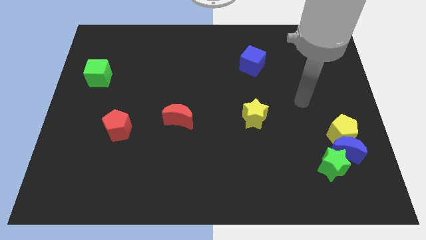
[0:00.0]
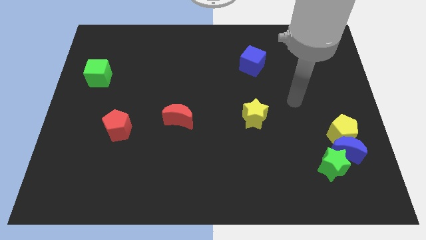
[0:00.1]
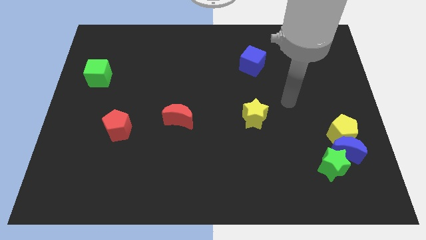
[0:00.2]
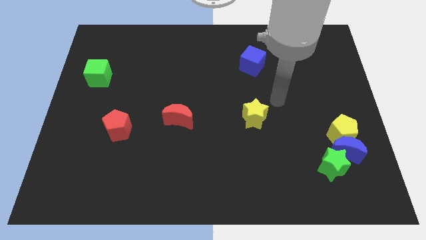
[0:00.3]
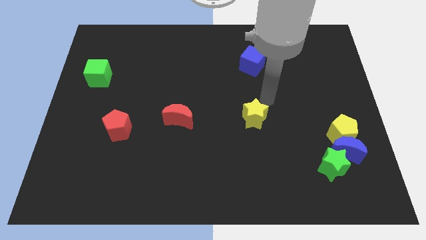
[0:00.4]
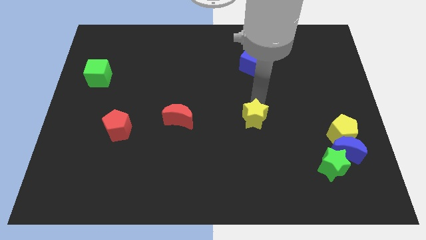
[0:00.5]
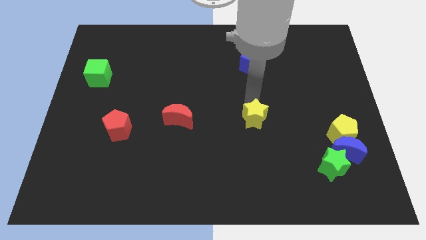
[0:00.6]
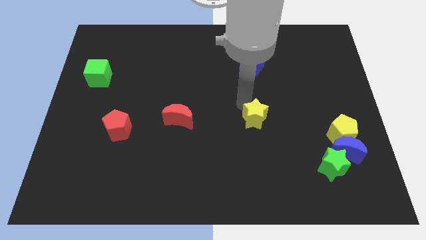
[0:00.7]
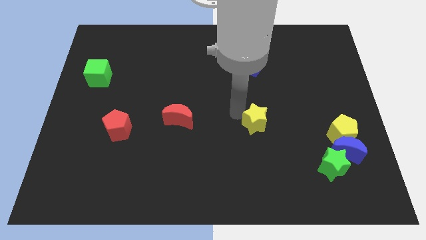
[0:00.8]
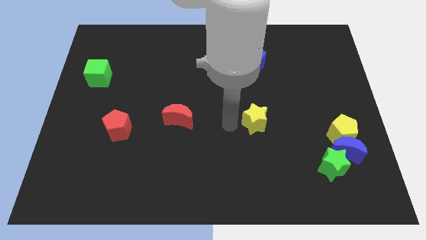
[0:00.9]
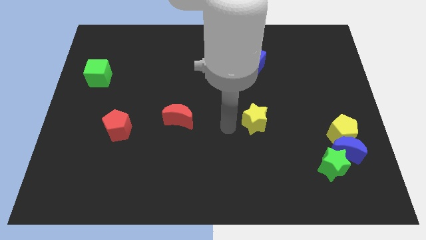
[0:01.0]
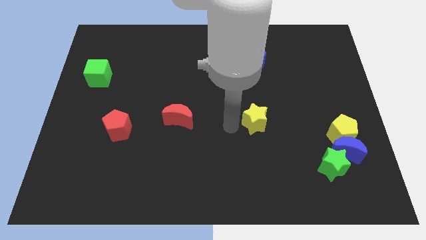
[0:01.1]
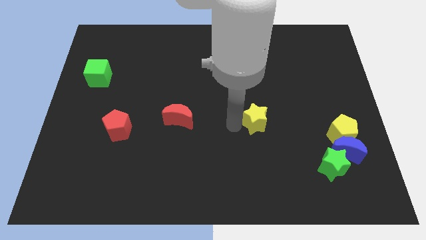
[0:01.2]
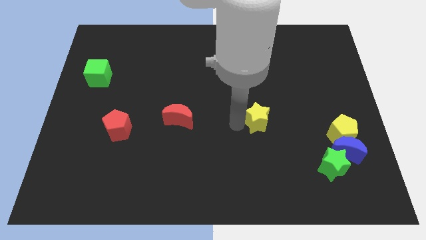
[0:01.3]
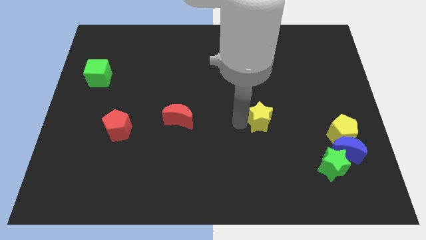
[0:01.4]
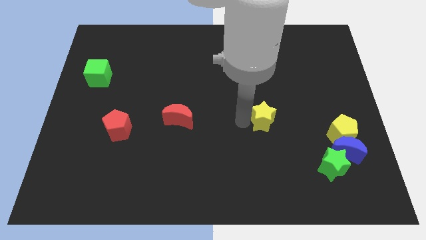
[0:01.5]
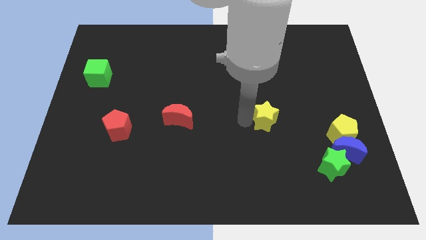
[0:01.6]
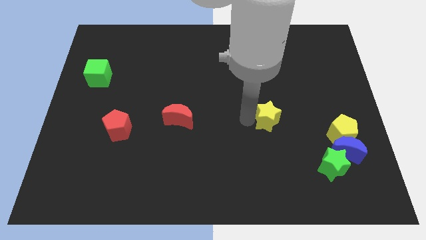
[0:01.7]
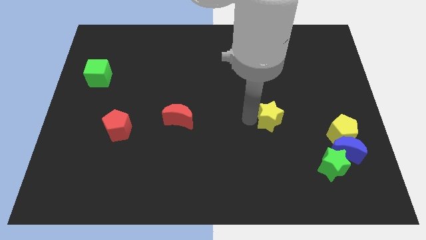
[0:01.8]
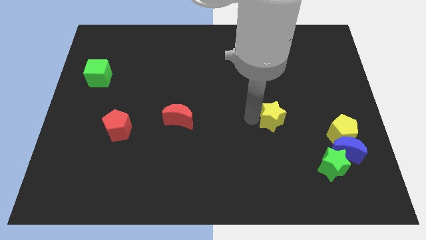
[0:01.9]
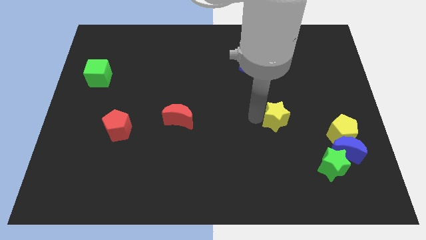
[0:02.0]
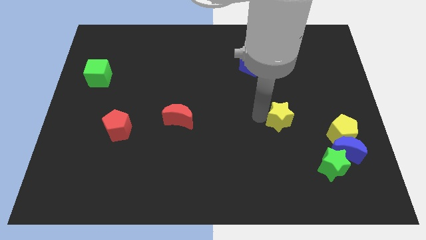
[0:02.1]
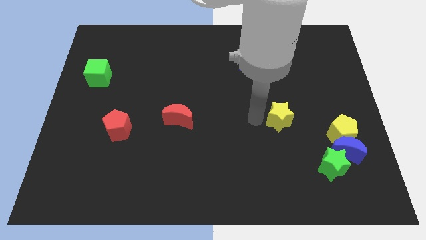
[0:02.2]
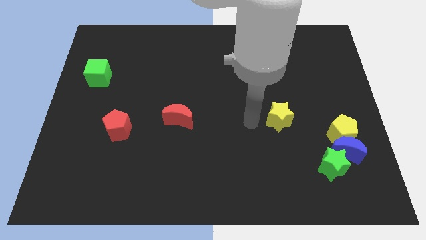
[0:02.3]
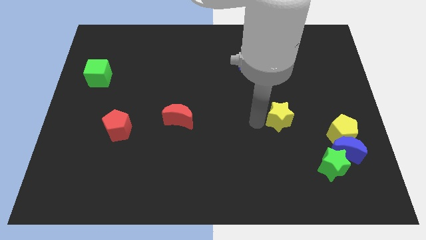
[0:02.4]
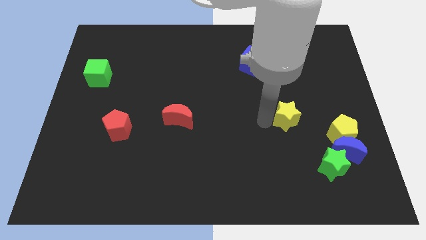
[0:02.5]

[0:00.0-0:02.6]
push the yellow star to the right a bit

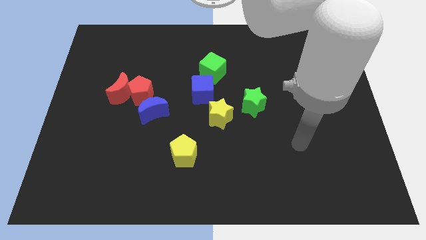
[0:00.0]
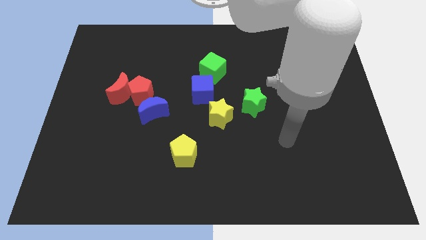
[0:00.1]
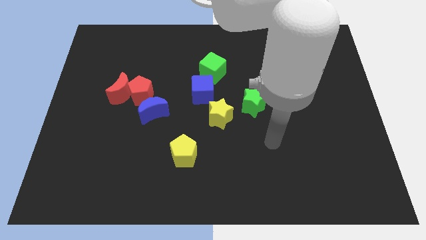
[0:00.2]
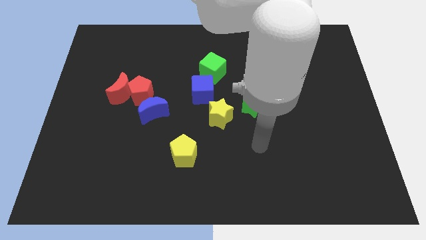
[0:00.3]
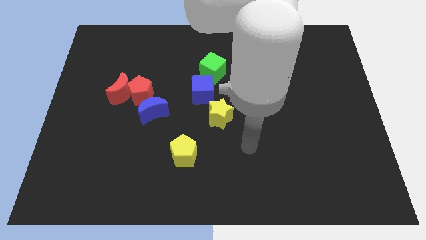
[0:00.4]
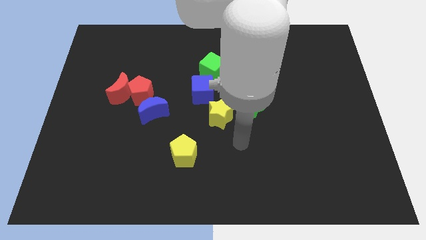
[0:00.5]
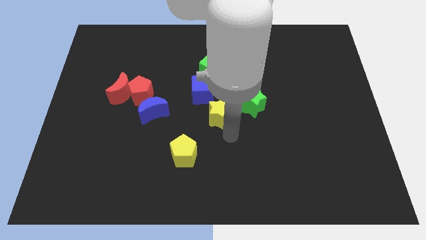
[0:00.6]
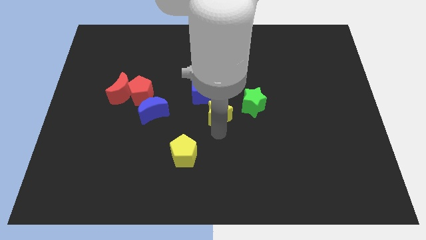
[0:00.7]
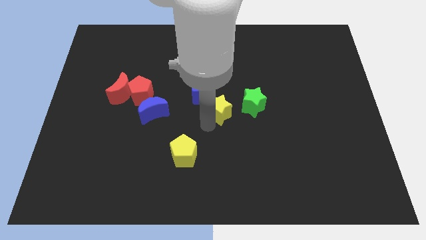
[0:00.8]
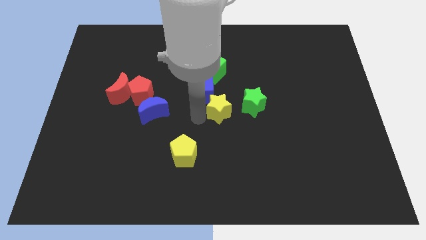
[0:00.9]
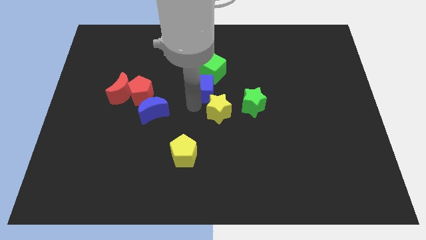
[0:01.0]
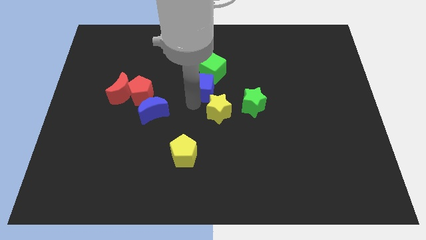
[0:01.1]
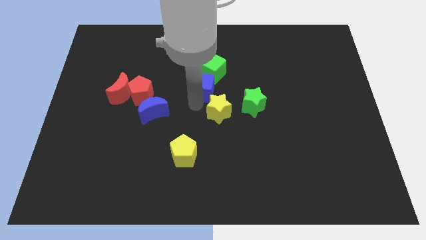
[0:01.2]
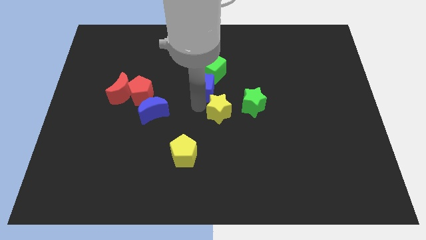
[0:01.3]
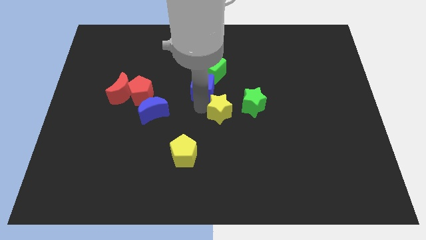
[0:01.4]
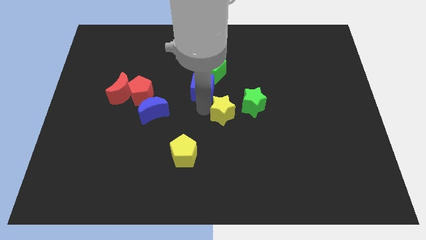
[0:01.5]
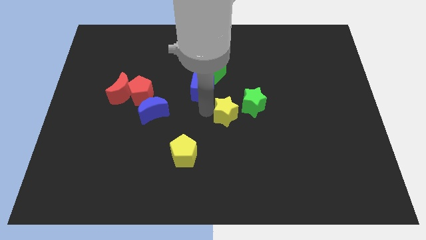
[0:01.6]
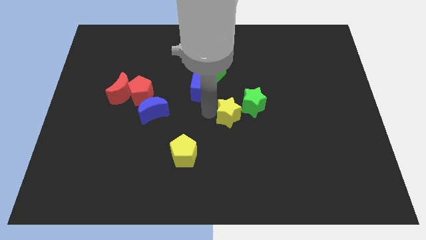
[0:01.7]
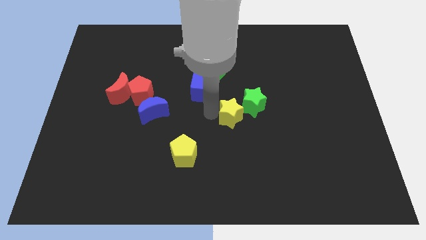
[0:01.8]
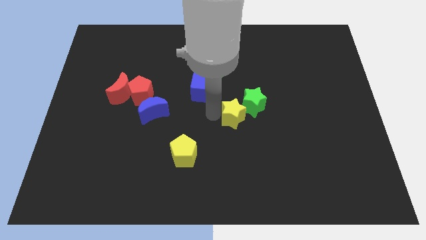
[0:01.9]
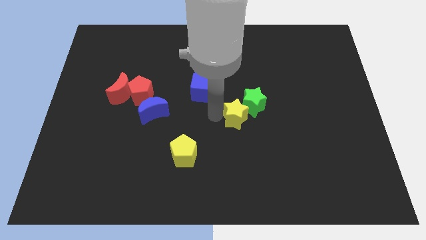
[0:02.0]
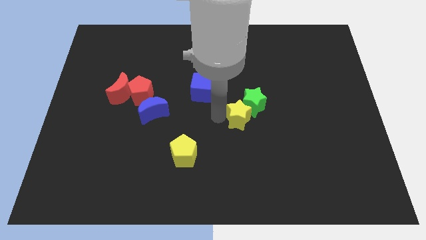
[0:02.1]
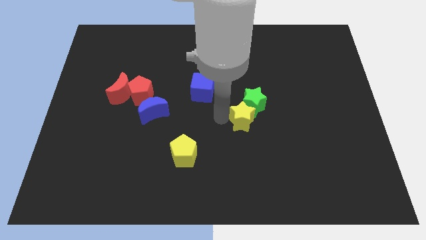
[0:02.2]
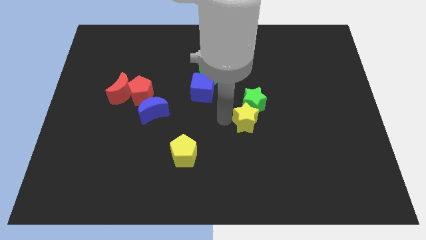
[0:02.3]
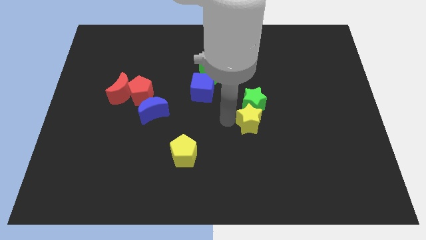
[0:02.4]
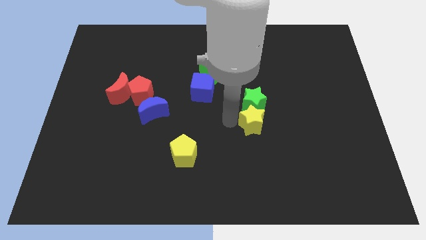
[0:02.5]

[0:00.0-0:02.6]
slide the yellow star slightly to the right

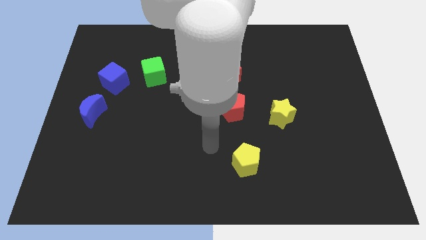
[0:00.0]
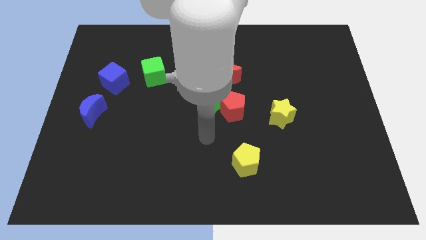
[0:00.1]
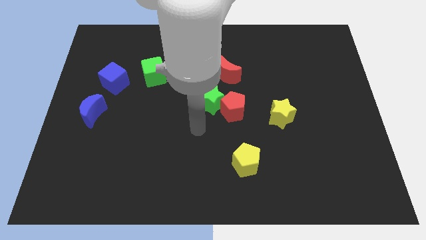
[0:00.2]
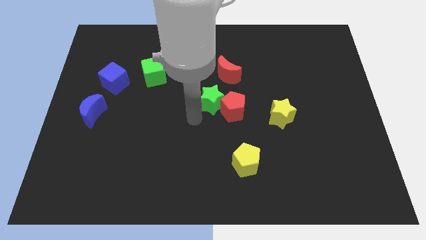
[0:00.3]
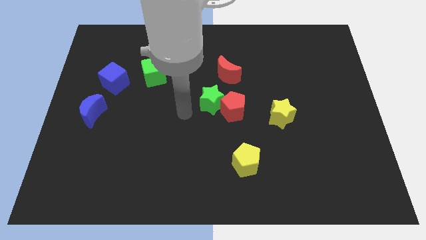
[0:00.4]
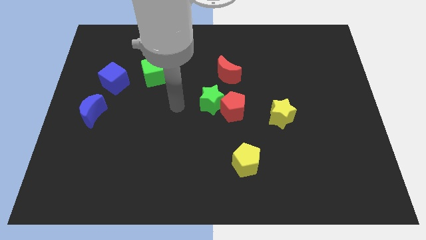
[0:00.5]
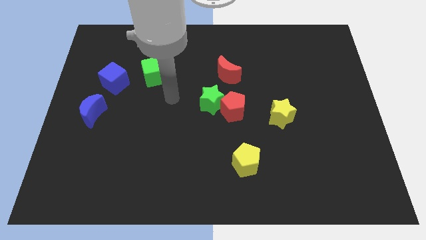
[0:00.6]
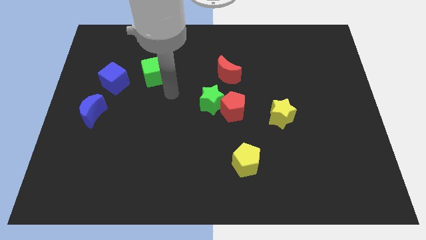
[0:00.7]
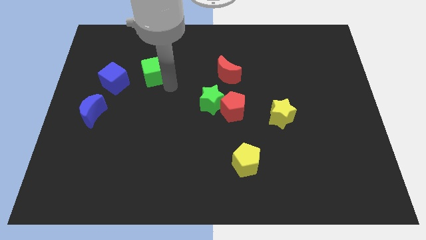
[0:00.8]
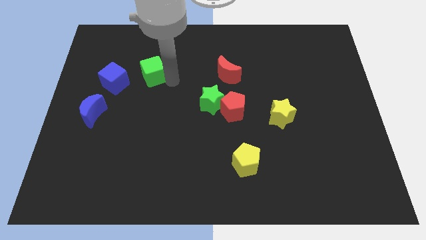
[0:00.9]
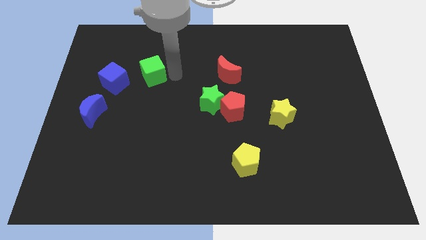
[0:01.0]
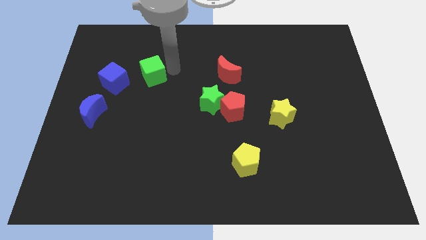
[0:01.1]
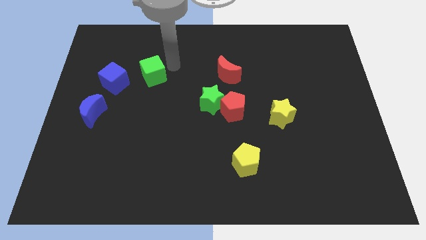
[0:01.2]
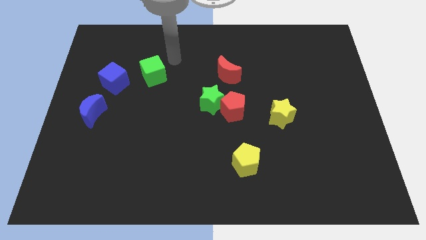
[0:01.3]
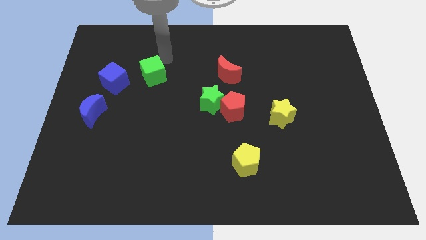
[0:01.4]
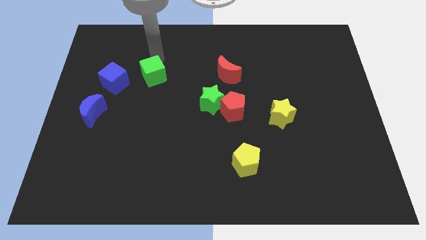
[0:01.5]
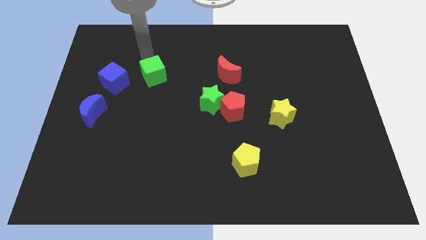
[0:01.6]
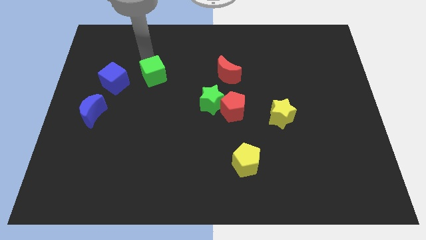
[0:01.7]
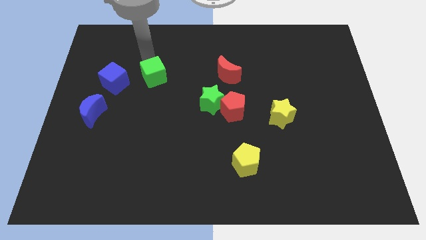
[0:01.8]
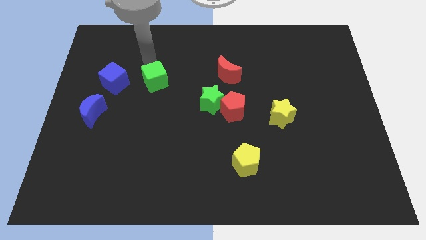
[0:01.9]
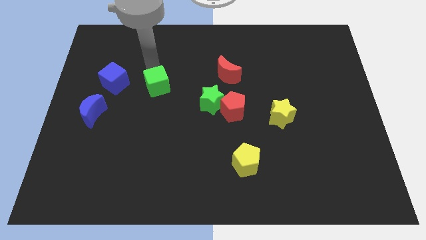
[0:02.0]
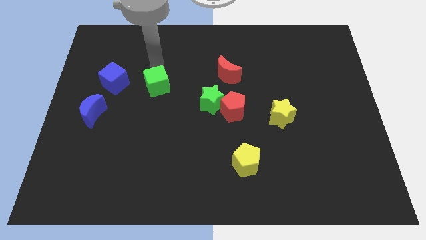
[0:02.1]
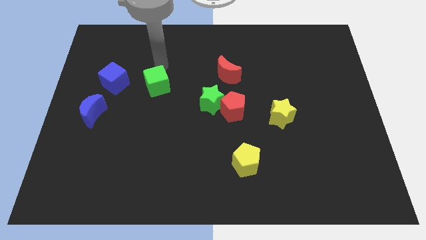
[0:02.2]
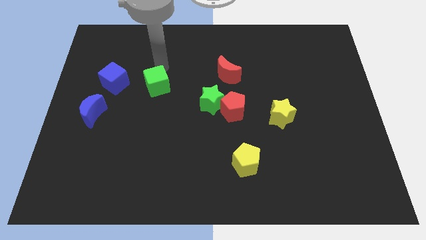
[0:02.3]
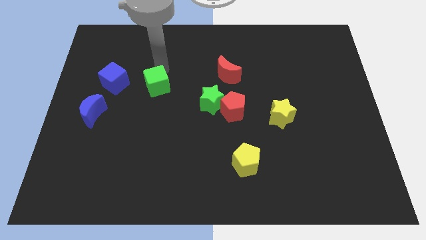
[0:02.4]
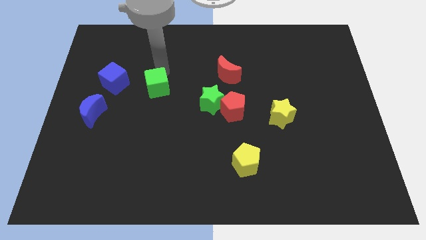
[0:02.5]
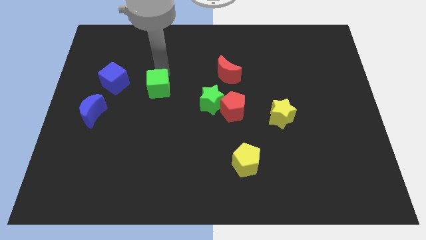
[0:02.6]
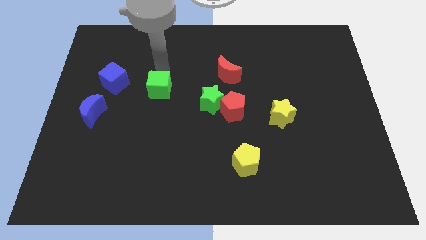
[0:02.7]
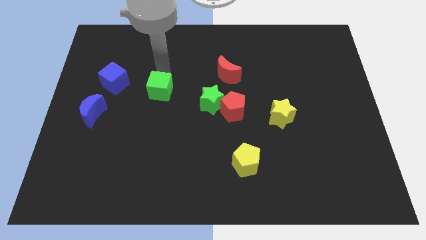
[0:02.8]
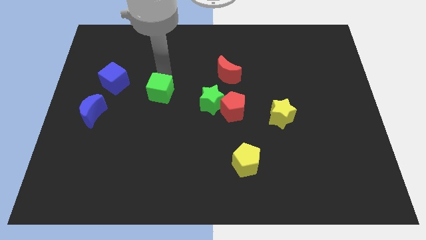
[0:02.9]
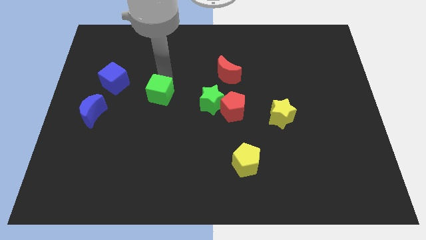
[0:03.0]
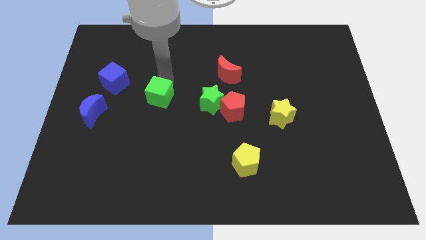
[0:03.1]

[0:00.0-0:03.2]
slide the green cube down a bit
